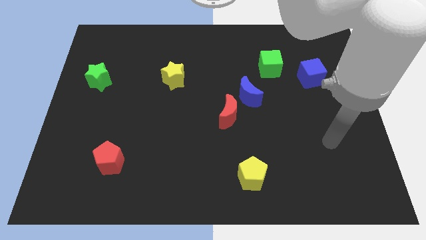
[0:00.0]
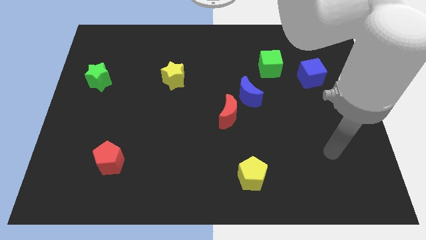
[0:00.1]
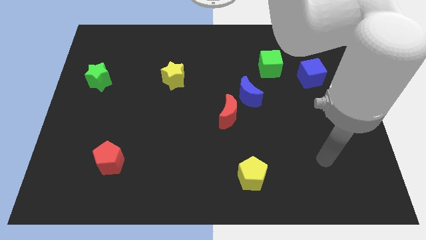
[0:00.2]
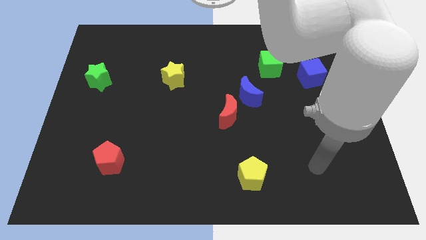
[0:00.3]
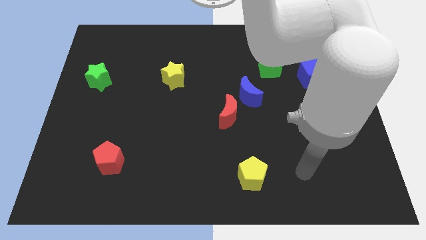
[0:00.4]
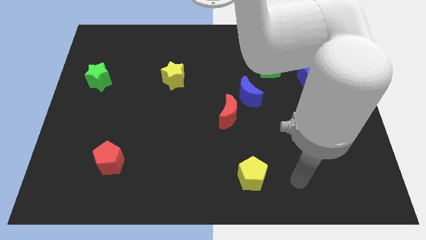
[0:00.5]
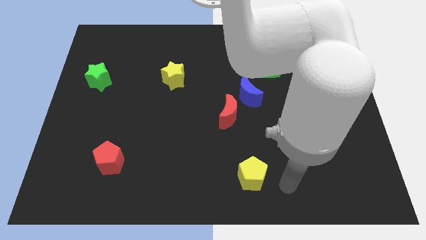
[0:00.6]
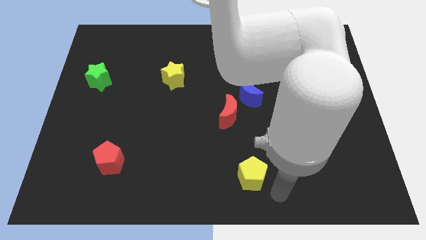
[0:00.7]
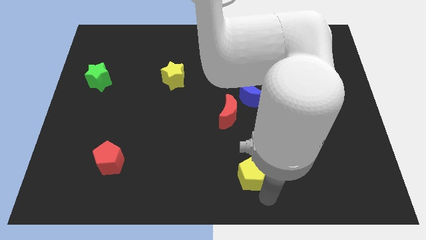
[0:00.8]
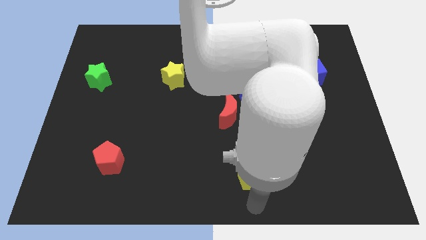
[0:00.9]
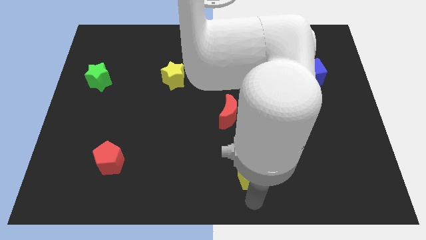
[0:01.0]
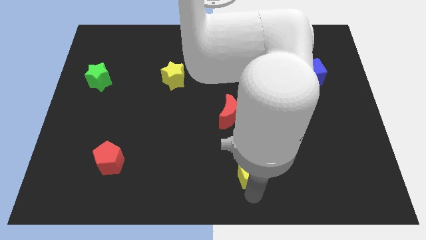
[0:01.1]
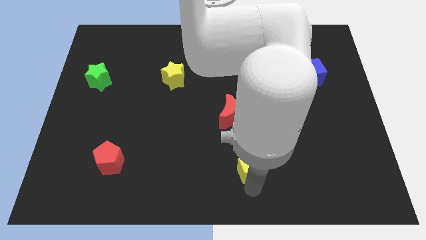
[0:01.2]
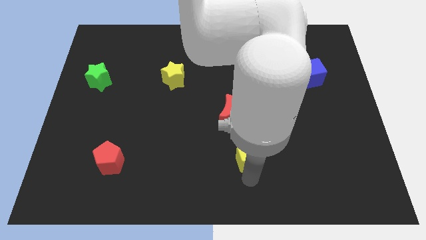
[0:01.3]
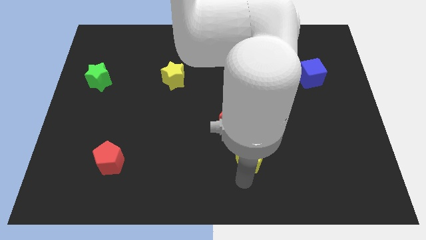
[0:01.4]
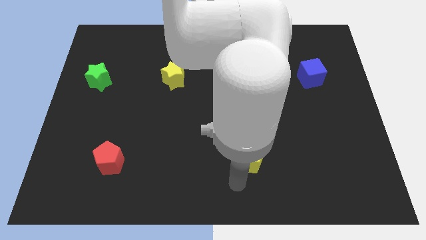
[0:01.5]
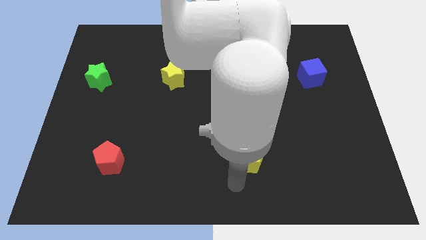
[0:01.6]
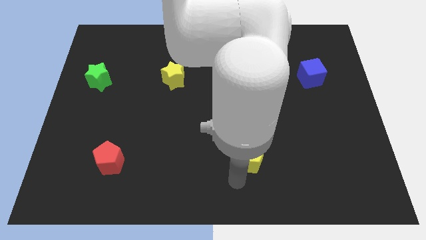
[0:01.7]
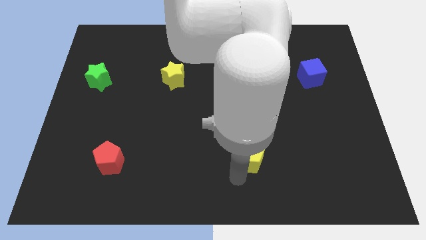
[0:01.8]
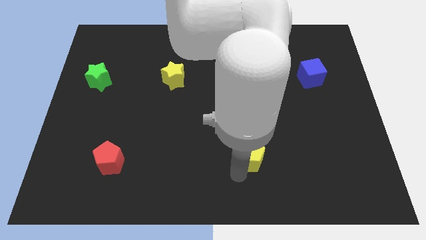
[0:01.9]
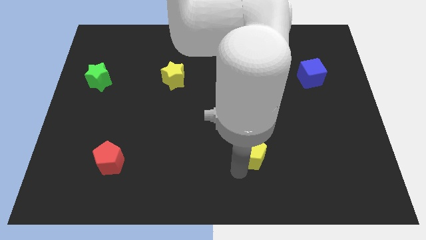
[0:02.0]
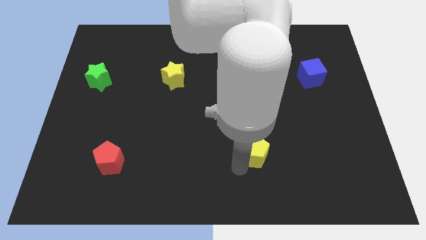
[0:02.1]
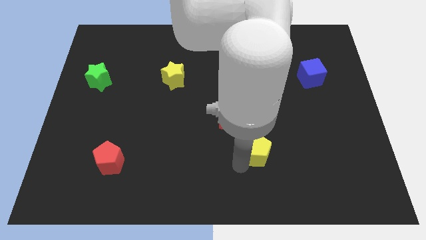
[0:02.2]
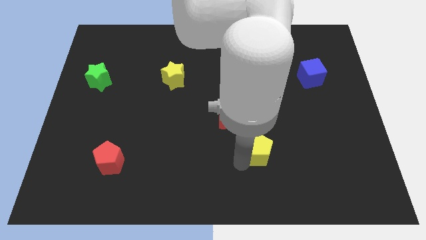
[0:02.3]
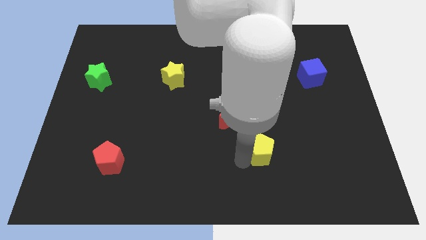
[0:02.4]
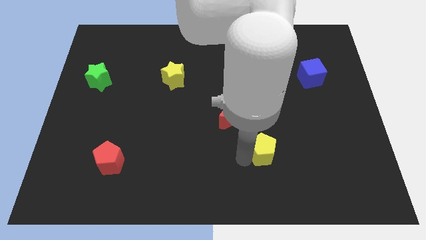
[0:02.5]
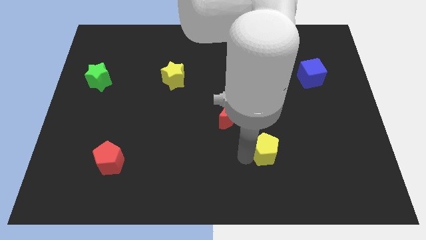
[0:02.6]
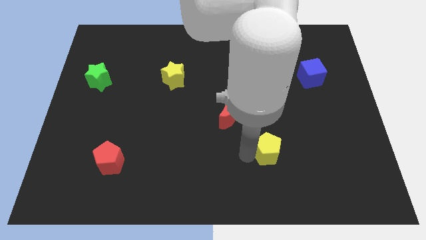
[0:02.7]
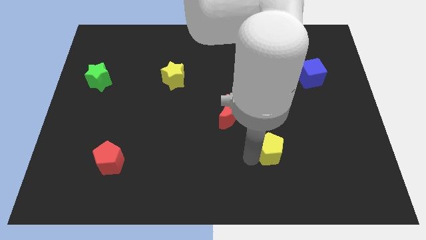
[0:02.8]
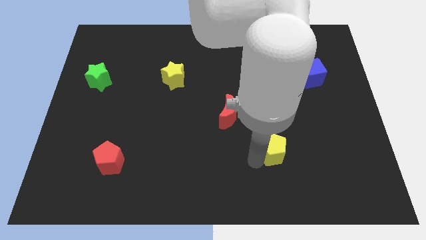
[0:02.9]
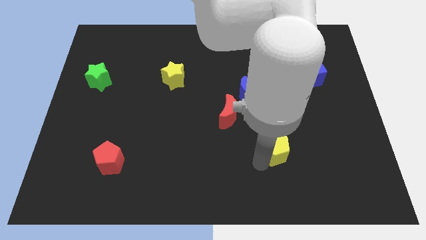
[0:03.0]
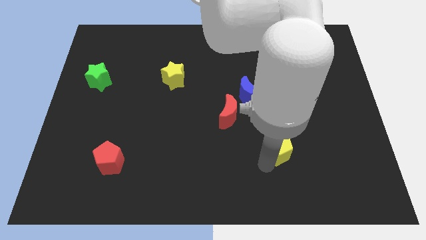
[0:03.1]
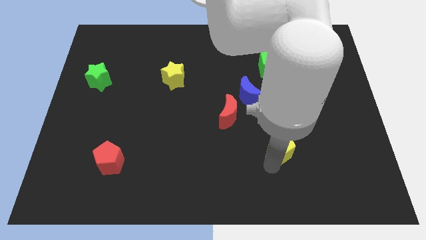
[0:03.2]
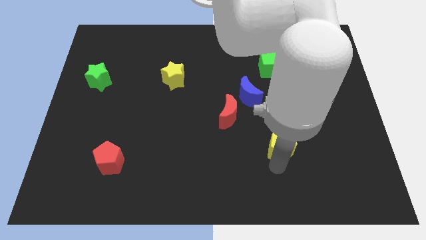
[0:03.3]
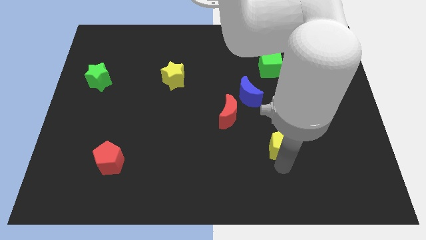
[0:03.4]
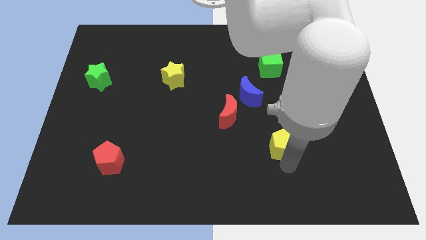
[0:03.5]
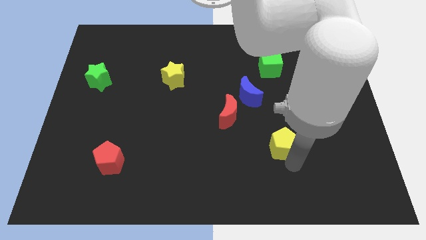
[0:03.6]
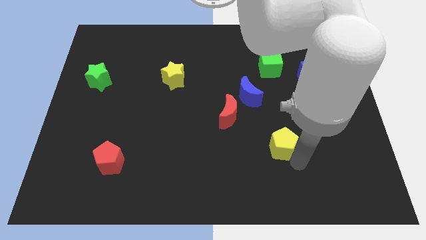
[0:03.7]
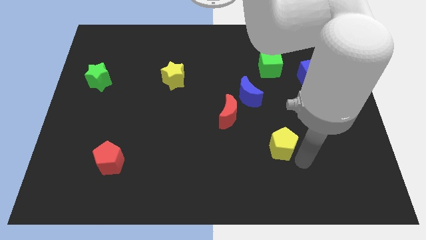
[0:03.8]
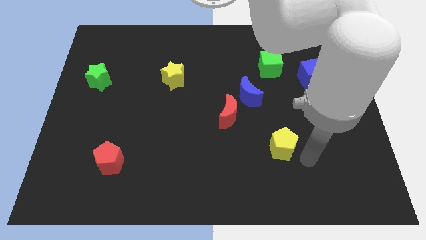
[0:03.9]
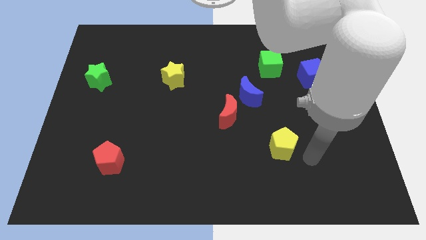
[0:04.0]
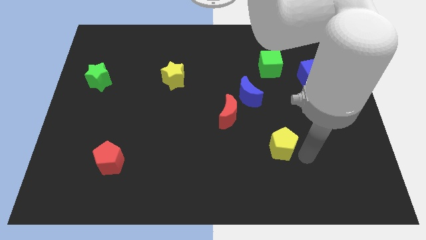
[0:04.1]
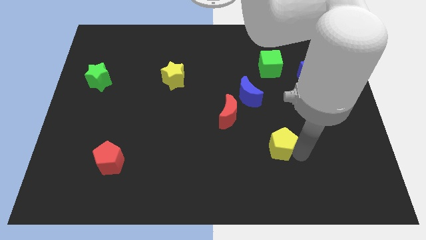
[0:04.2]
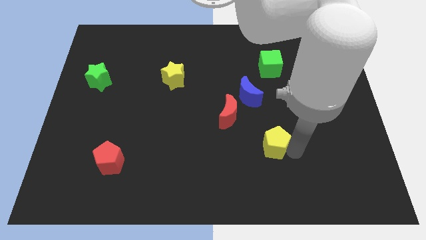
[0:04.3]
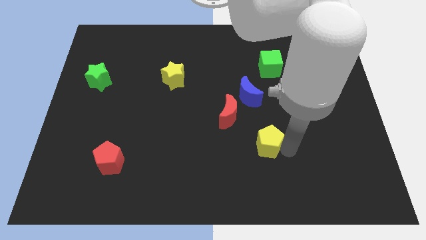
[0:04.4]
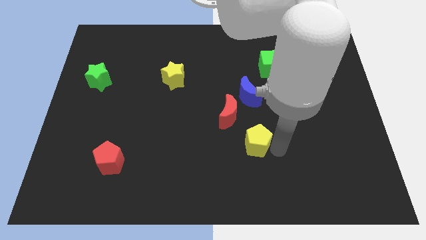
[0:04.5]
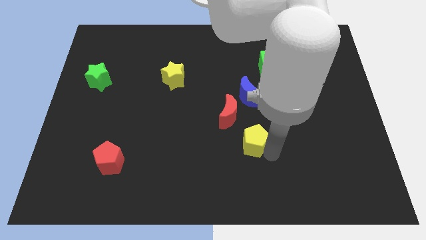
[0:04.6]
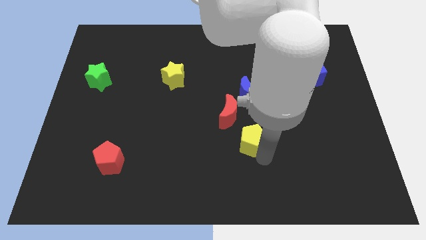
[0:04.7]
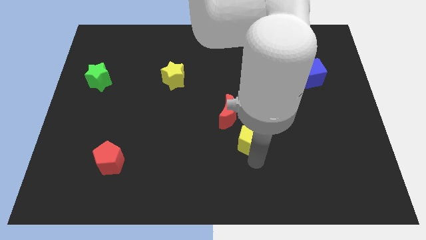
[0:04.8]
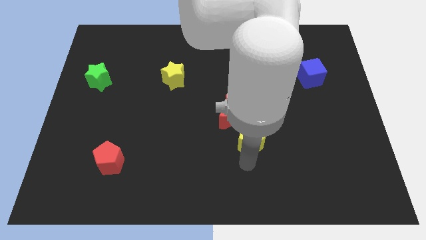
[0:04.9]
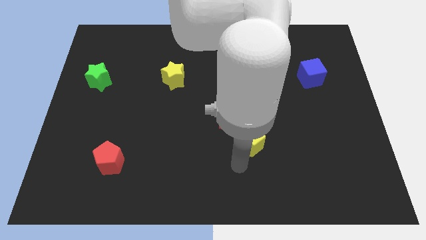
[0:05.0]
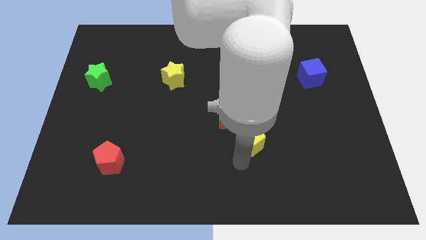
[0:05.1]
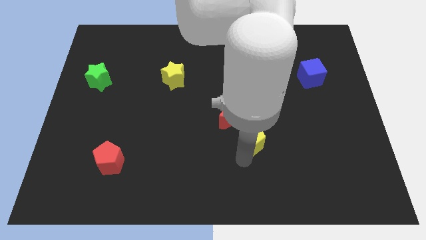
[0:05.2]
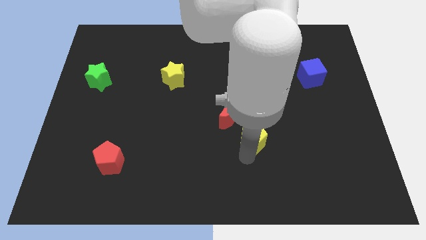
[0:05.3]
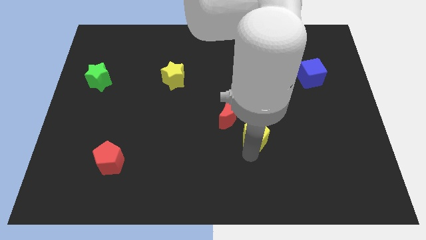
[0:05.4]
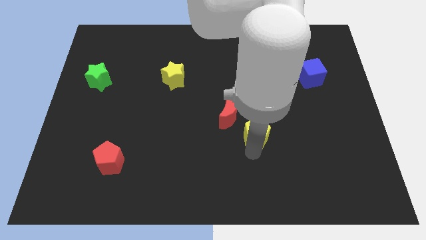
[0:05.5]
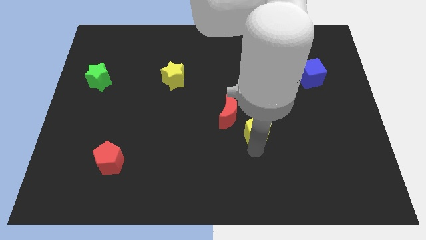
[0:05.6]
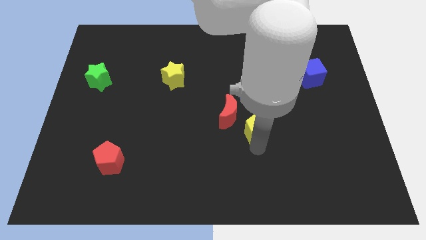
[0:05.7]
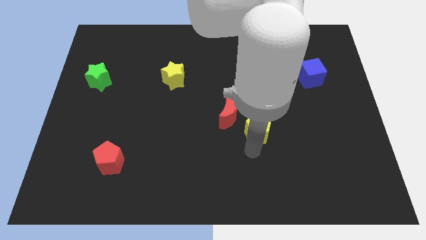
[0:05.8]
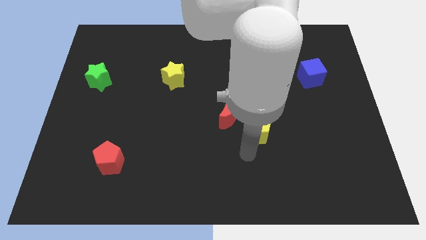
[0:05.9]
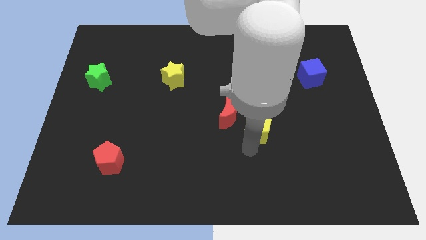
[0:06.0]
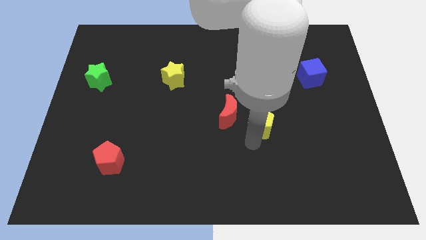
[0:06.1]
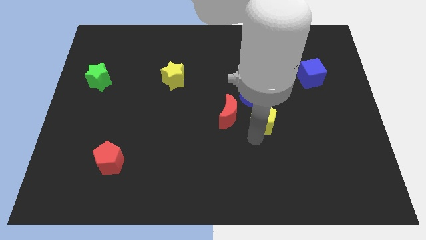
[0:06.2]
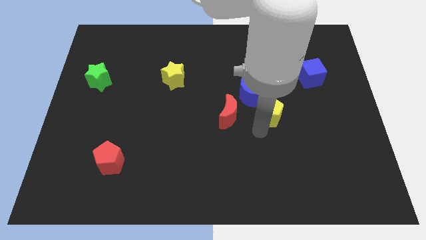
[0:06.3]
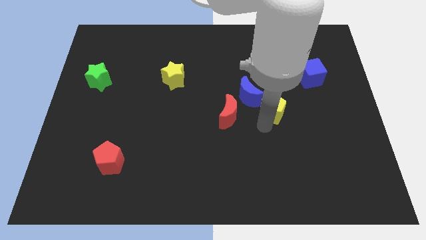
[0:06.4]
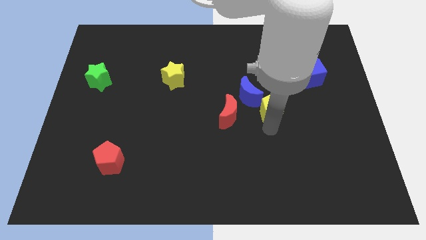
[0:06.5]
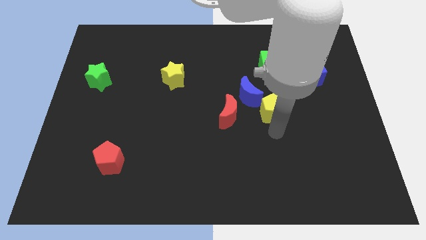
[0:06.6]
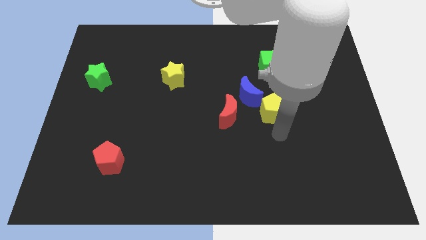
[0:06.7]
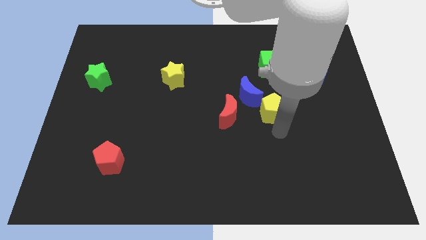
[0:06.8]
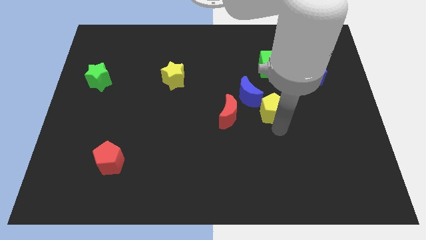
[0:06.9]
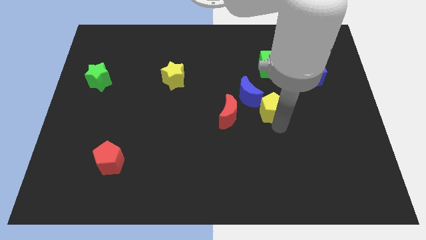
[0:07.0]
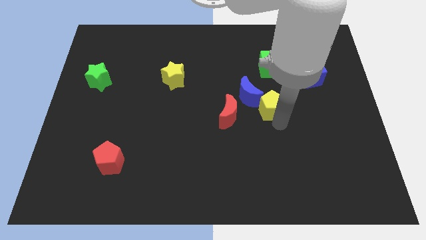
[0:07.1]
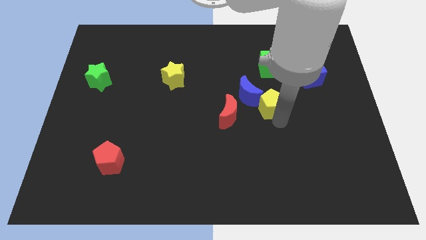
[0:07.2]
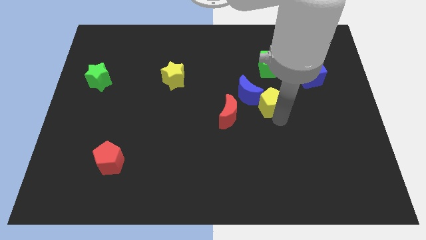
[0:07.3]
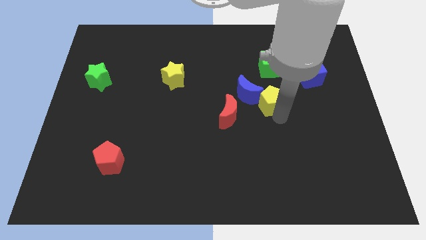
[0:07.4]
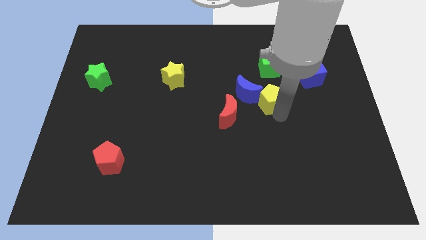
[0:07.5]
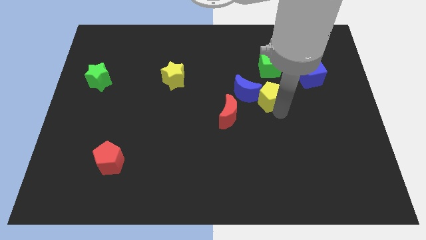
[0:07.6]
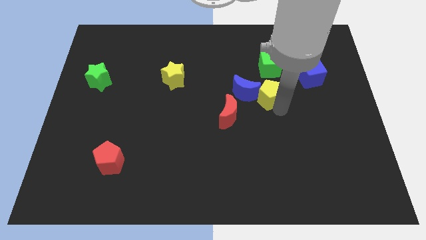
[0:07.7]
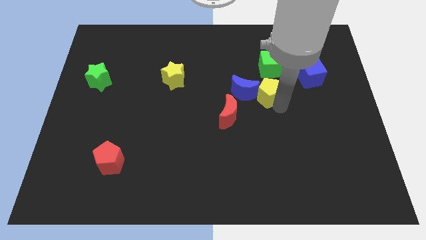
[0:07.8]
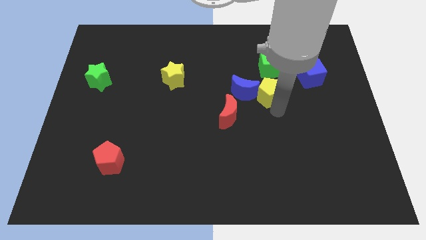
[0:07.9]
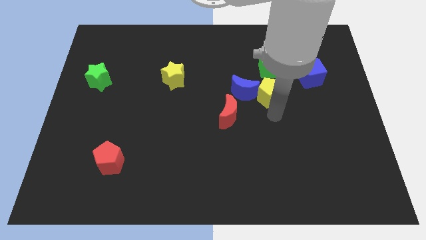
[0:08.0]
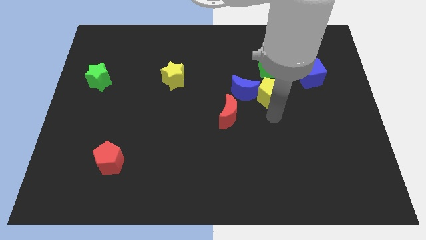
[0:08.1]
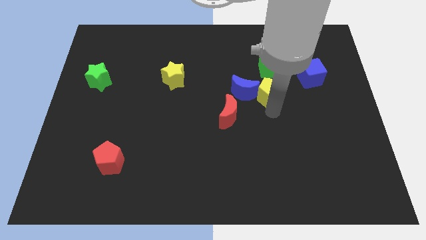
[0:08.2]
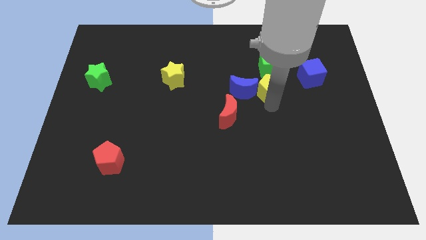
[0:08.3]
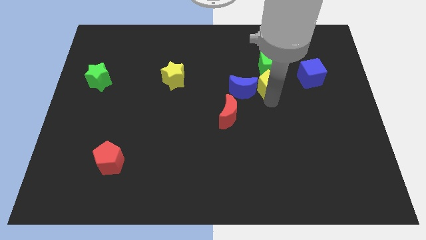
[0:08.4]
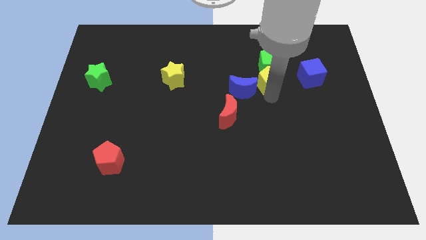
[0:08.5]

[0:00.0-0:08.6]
push the yellow pentagon next to the green cube
